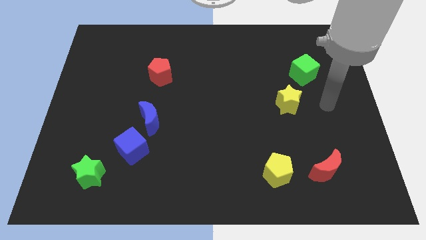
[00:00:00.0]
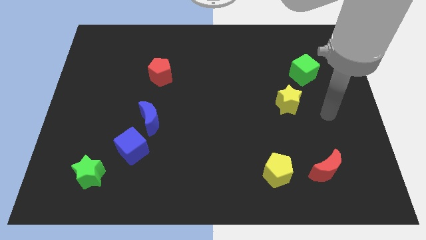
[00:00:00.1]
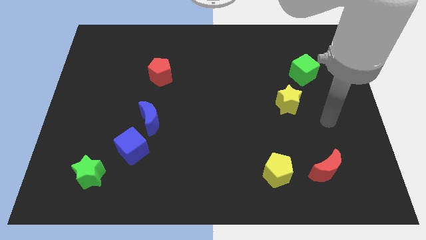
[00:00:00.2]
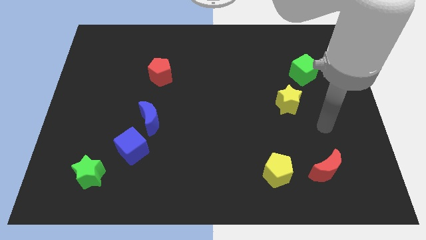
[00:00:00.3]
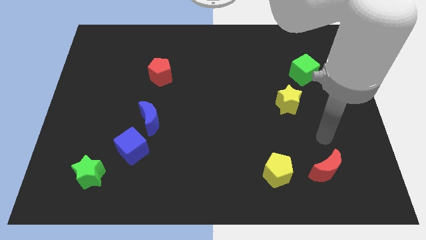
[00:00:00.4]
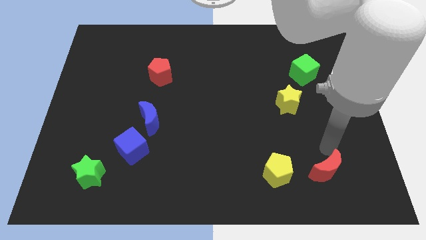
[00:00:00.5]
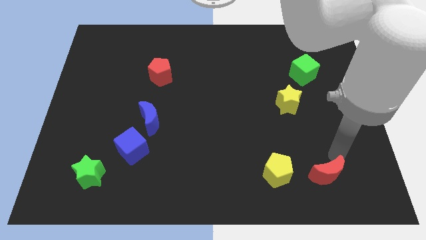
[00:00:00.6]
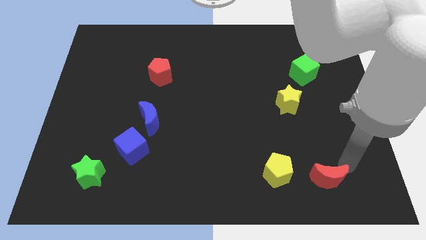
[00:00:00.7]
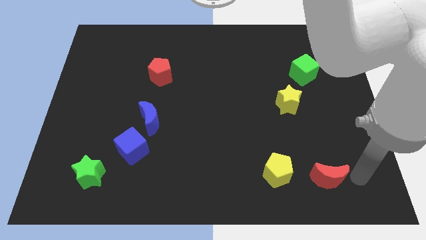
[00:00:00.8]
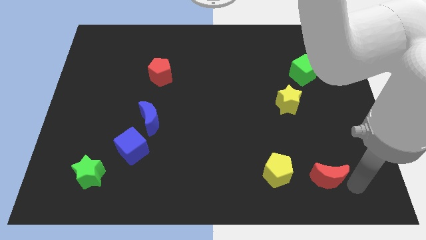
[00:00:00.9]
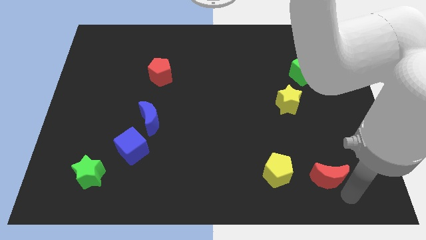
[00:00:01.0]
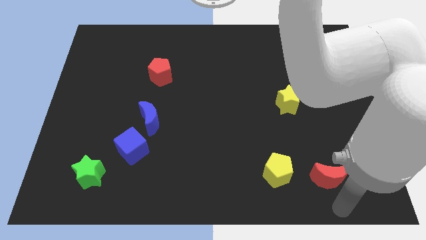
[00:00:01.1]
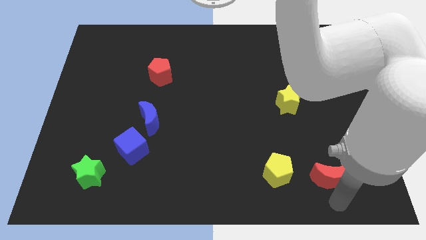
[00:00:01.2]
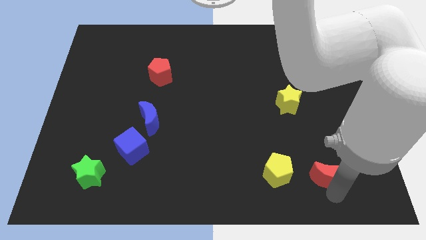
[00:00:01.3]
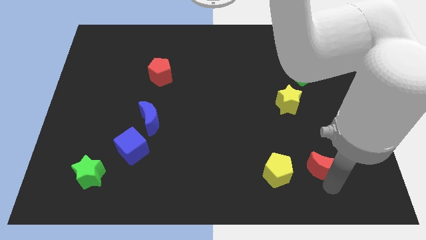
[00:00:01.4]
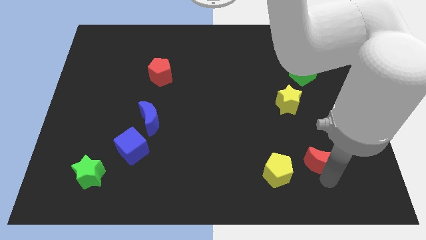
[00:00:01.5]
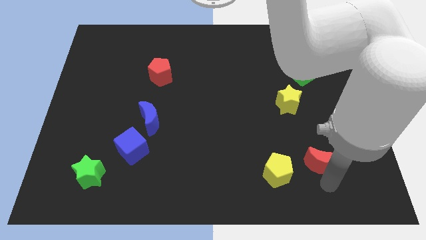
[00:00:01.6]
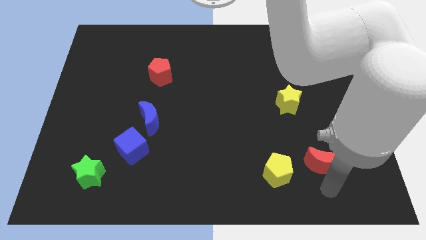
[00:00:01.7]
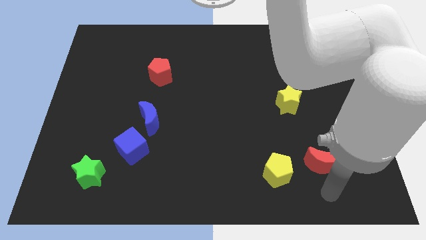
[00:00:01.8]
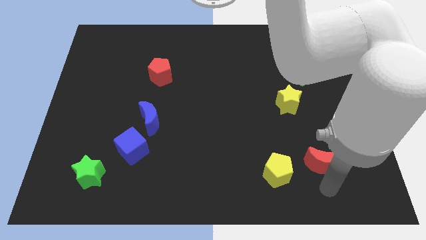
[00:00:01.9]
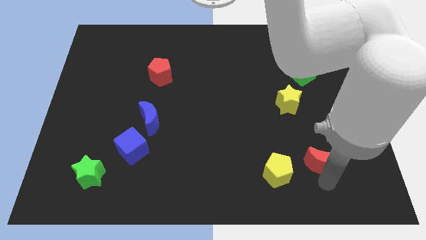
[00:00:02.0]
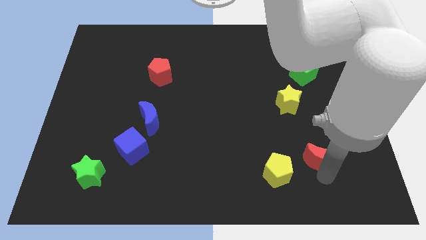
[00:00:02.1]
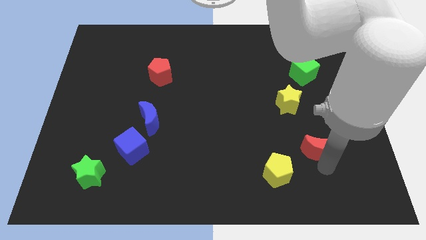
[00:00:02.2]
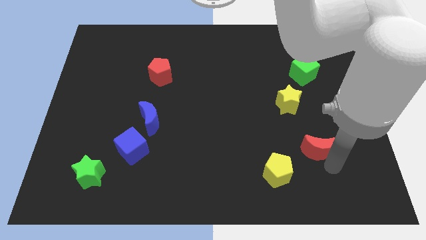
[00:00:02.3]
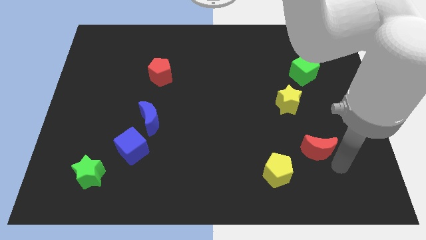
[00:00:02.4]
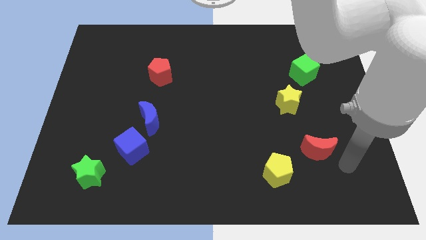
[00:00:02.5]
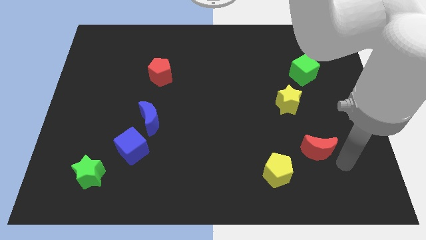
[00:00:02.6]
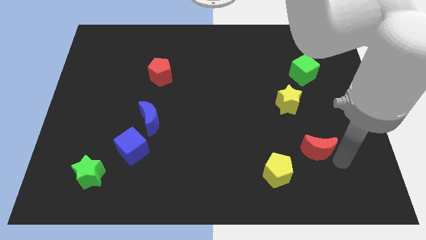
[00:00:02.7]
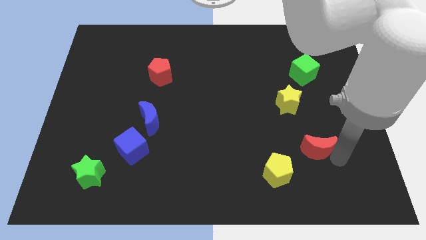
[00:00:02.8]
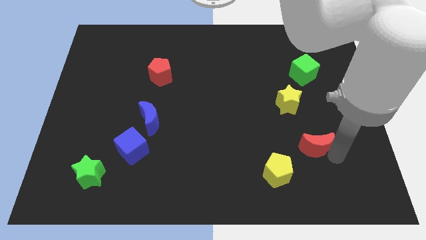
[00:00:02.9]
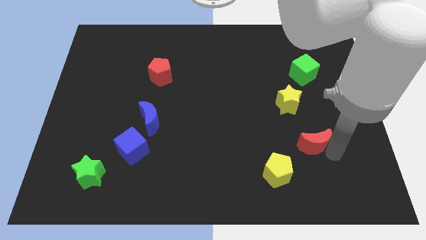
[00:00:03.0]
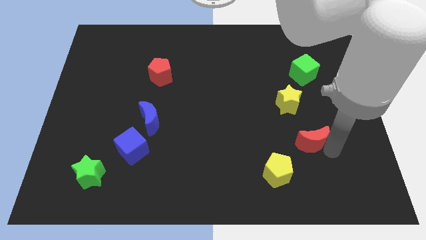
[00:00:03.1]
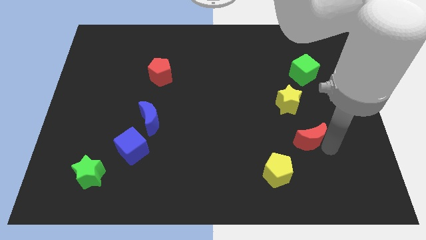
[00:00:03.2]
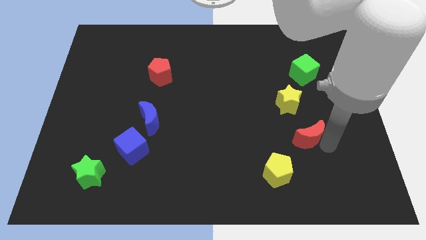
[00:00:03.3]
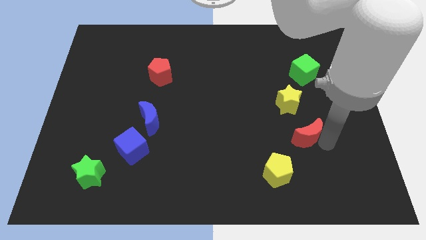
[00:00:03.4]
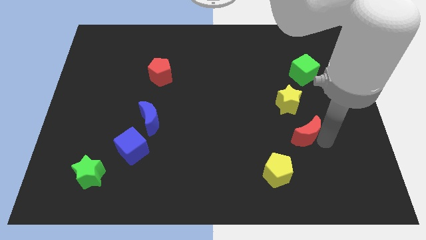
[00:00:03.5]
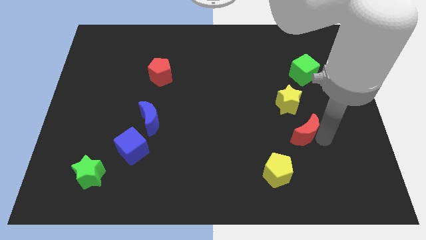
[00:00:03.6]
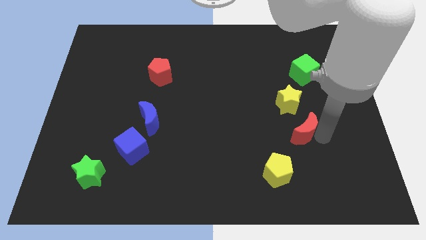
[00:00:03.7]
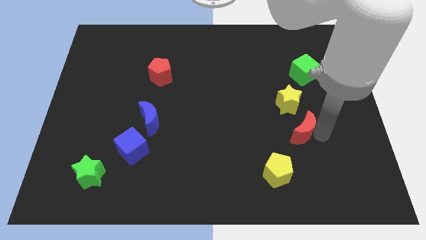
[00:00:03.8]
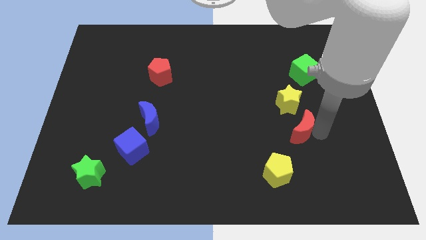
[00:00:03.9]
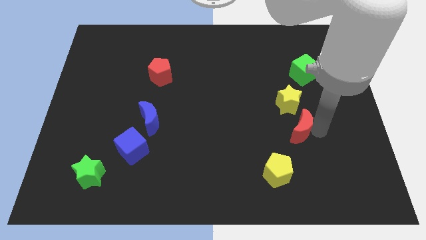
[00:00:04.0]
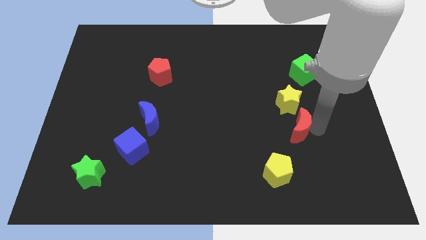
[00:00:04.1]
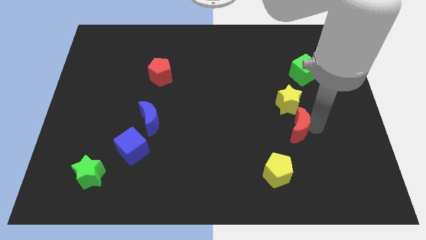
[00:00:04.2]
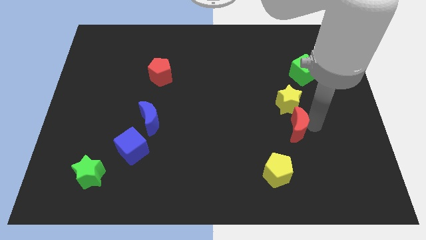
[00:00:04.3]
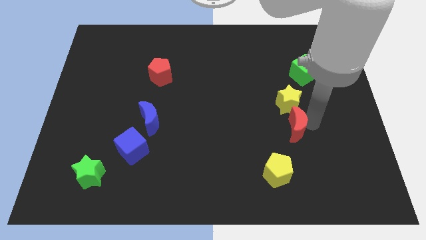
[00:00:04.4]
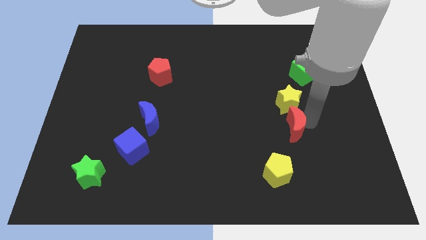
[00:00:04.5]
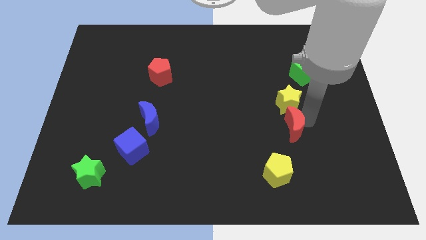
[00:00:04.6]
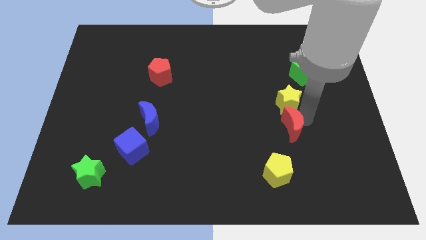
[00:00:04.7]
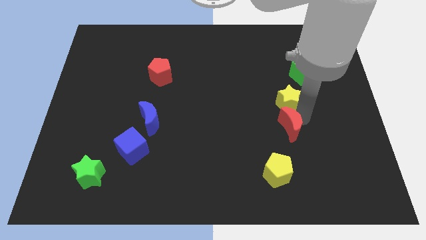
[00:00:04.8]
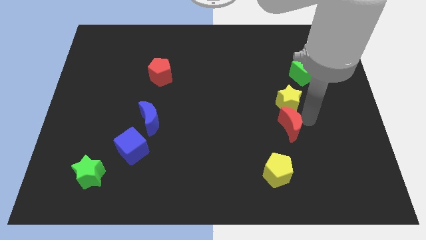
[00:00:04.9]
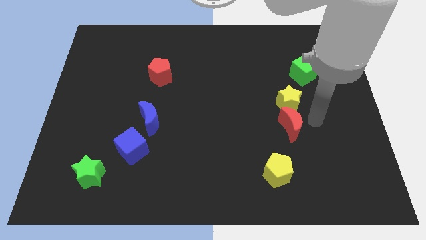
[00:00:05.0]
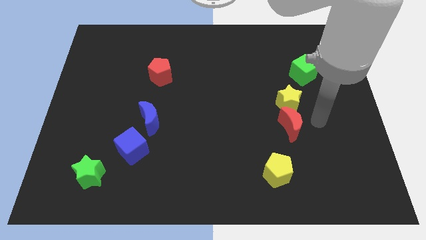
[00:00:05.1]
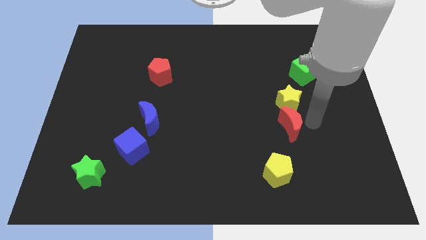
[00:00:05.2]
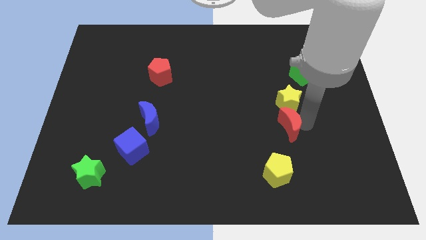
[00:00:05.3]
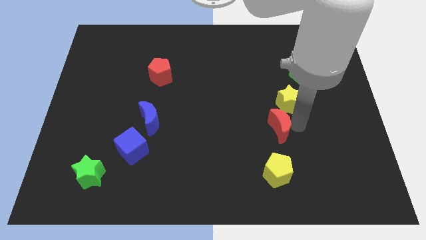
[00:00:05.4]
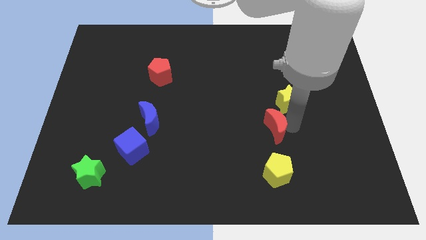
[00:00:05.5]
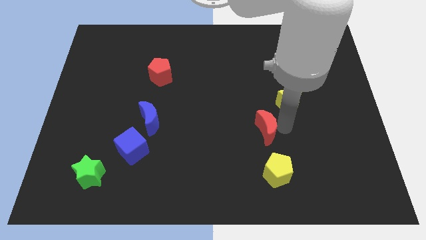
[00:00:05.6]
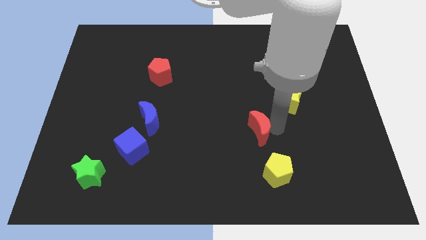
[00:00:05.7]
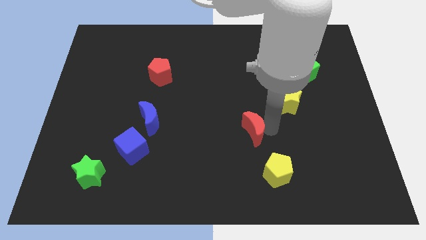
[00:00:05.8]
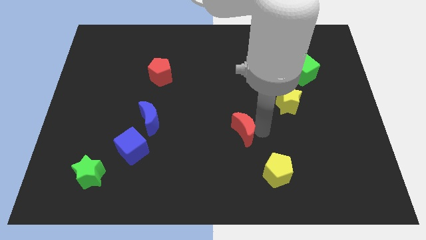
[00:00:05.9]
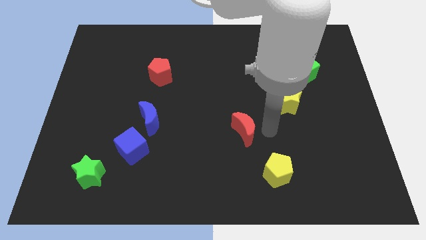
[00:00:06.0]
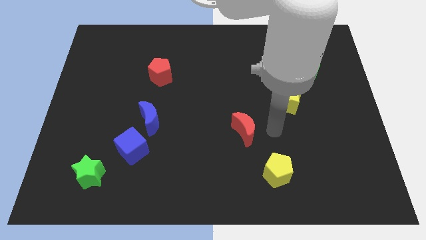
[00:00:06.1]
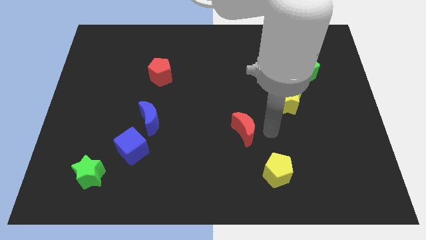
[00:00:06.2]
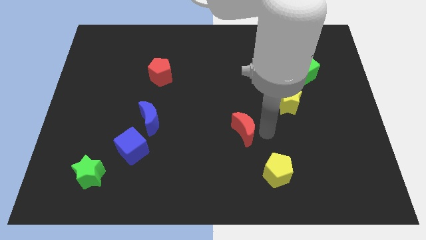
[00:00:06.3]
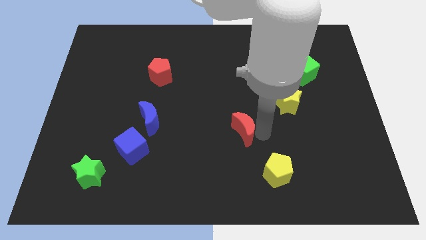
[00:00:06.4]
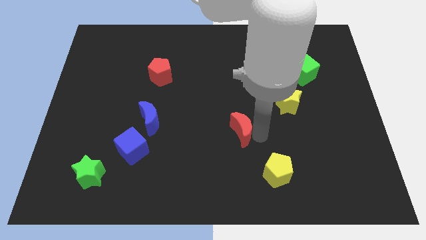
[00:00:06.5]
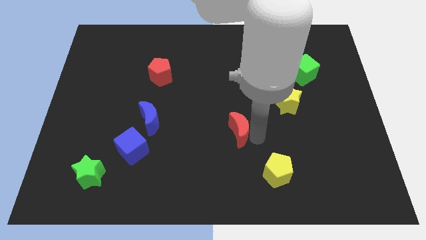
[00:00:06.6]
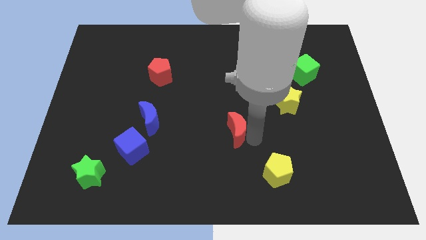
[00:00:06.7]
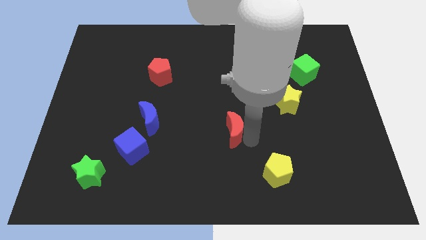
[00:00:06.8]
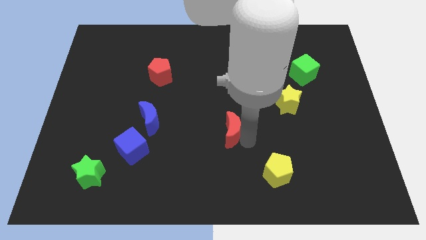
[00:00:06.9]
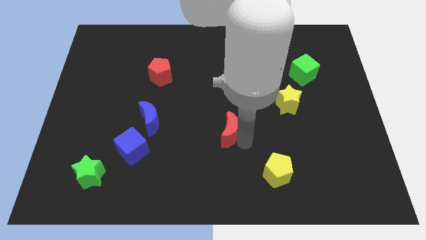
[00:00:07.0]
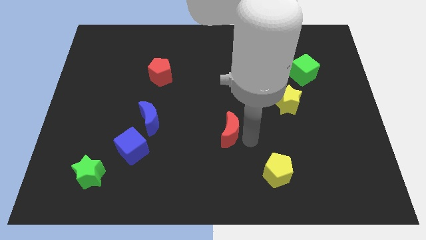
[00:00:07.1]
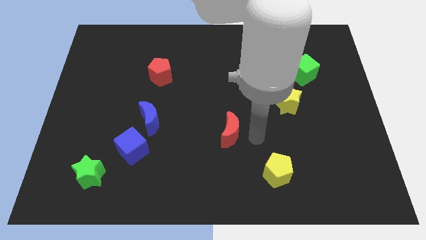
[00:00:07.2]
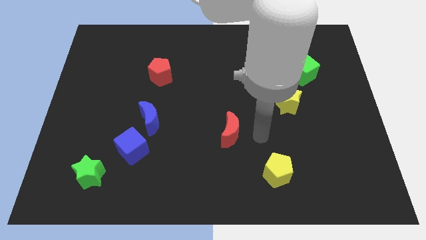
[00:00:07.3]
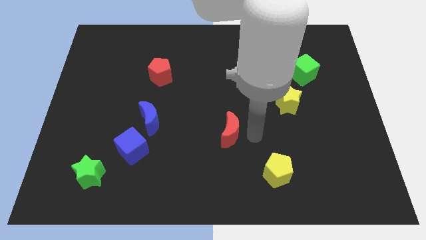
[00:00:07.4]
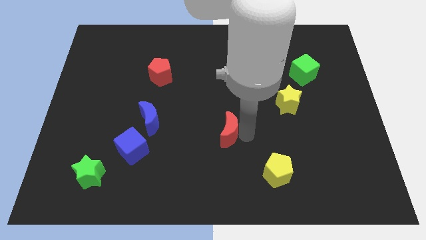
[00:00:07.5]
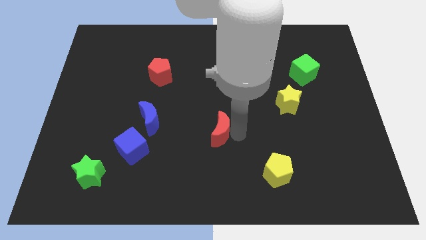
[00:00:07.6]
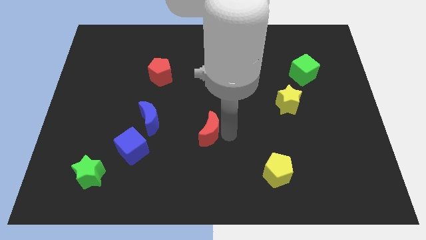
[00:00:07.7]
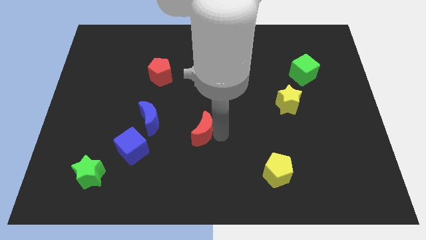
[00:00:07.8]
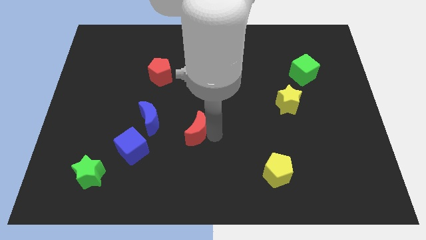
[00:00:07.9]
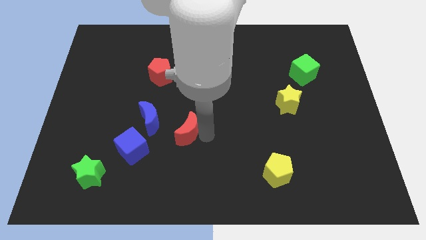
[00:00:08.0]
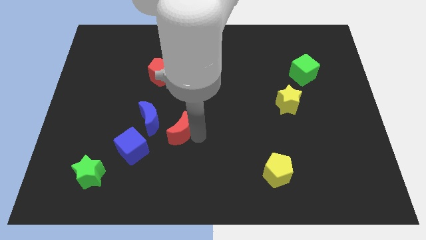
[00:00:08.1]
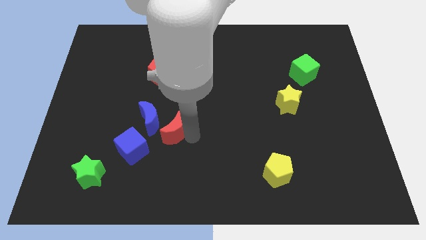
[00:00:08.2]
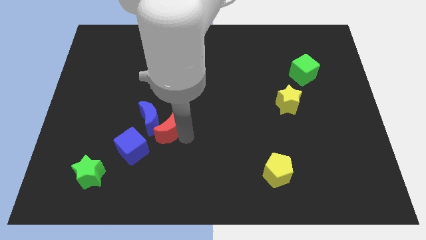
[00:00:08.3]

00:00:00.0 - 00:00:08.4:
push the red moon next to the blue moon
